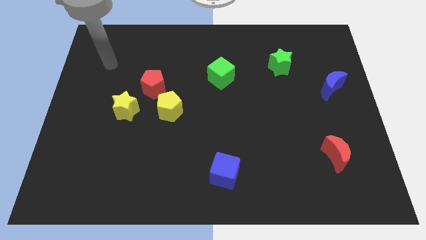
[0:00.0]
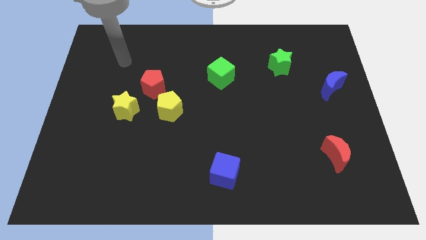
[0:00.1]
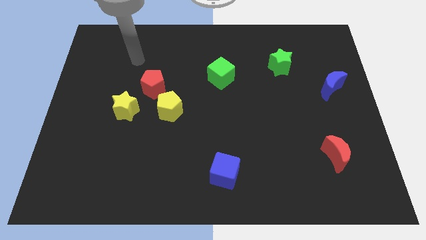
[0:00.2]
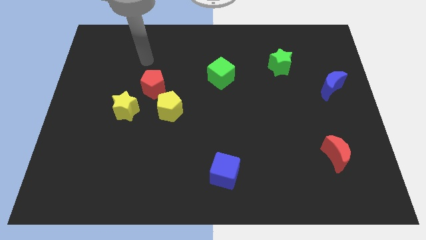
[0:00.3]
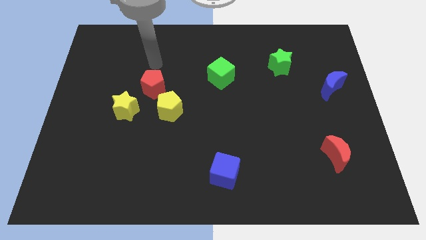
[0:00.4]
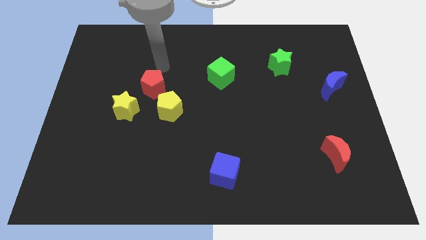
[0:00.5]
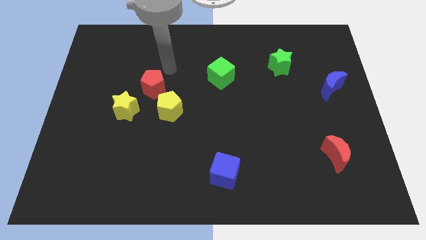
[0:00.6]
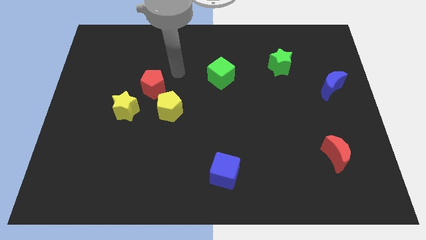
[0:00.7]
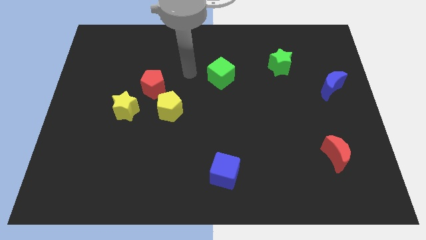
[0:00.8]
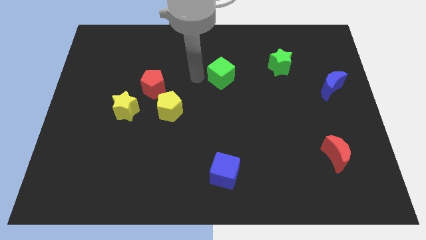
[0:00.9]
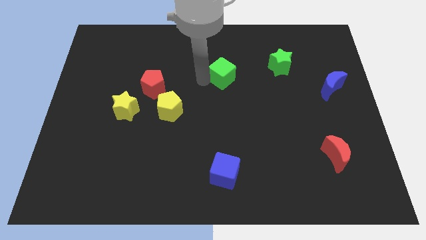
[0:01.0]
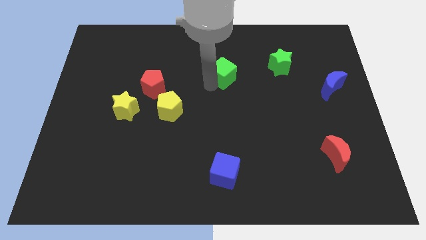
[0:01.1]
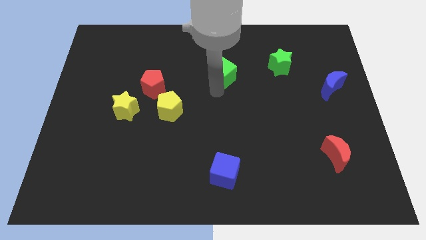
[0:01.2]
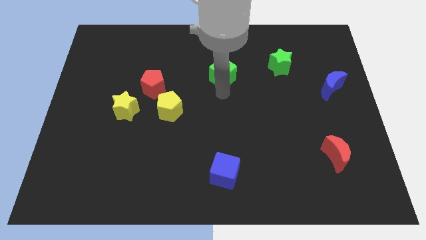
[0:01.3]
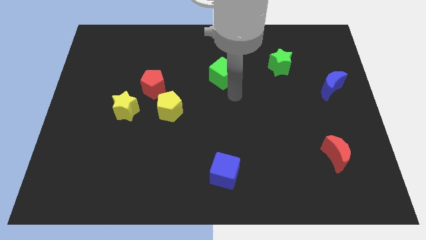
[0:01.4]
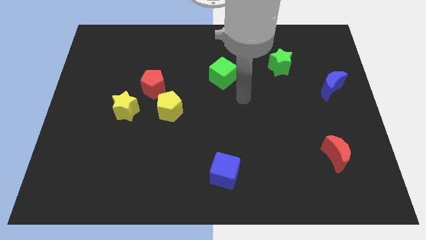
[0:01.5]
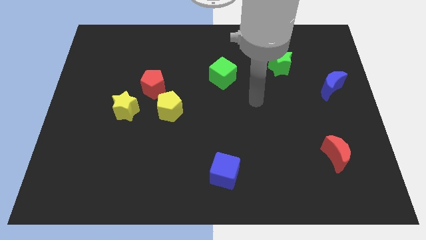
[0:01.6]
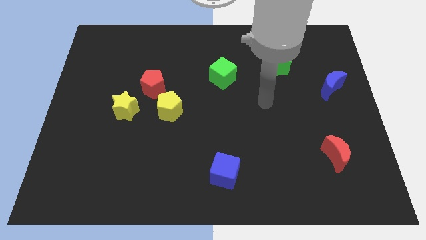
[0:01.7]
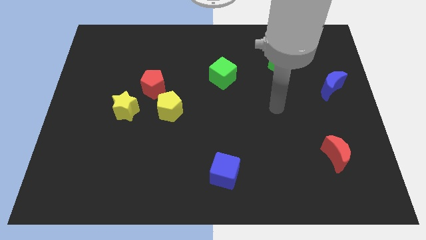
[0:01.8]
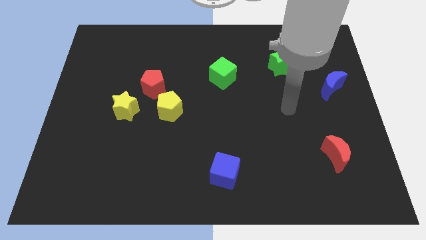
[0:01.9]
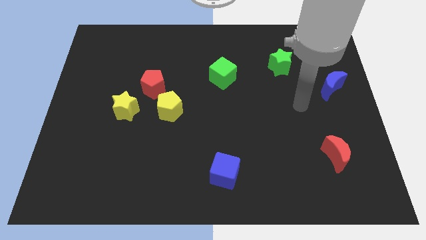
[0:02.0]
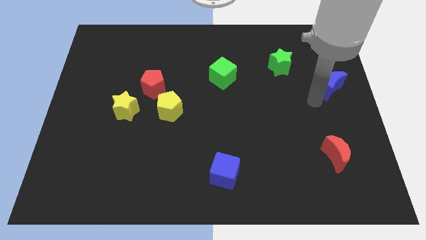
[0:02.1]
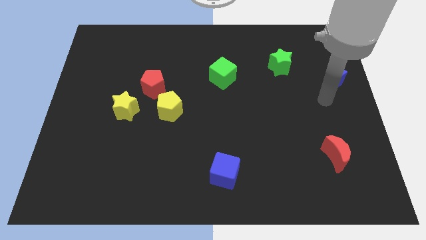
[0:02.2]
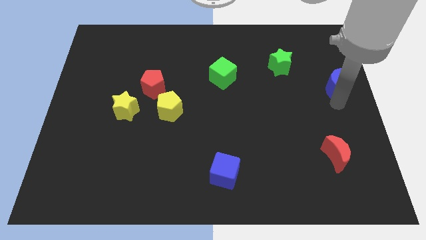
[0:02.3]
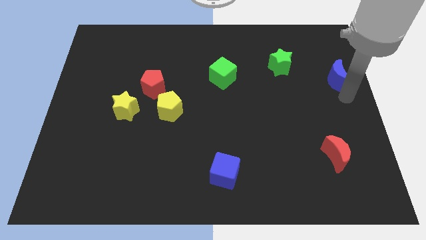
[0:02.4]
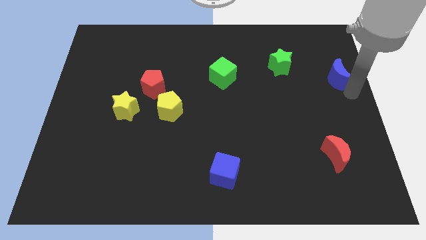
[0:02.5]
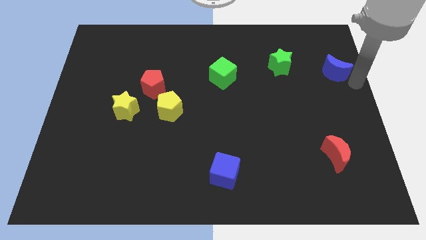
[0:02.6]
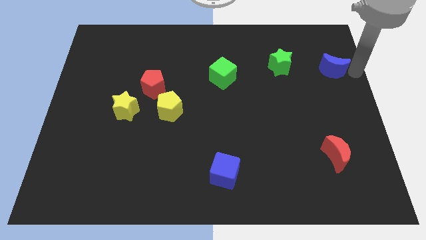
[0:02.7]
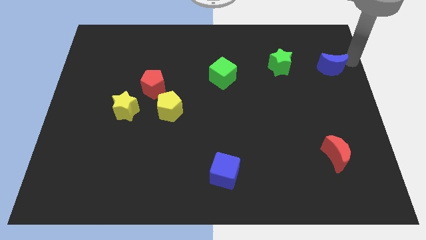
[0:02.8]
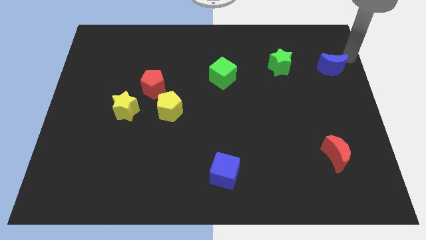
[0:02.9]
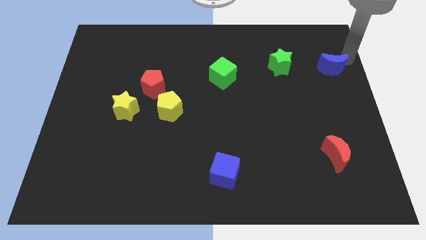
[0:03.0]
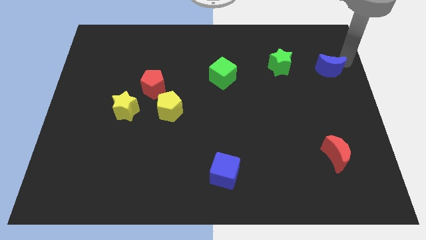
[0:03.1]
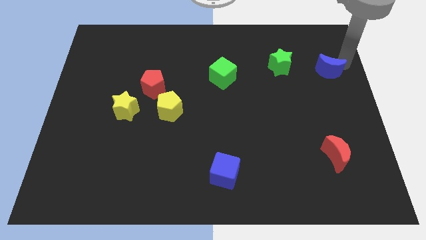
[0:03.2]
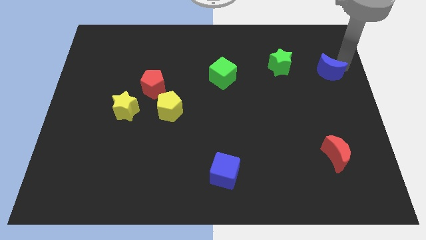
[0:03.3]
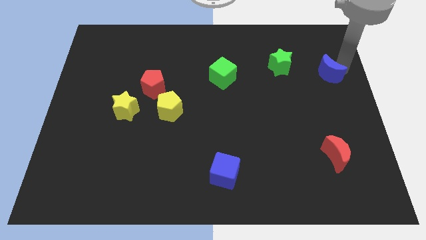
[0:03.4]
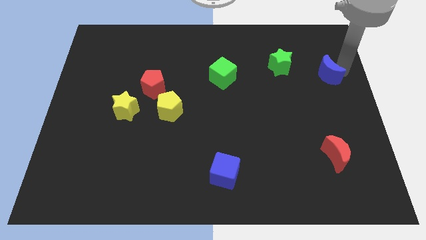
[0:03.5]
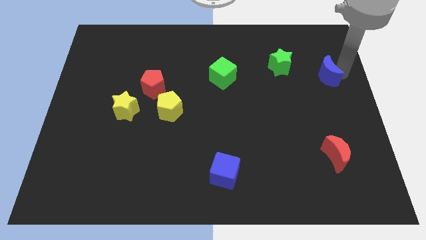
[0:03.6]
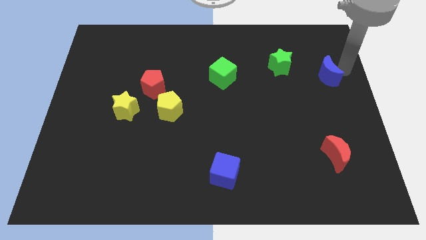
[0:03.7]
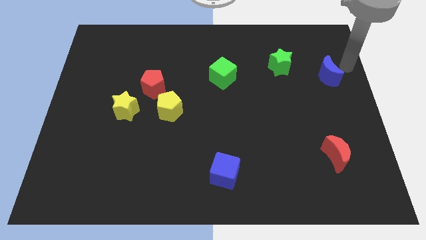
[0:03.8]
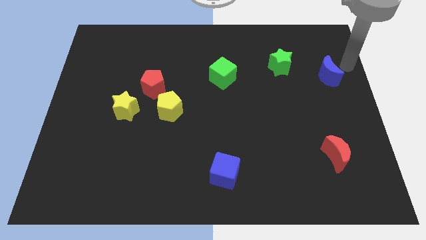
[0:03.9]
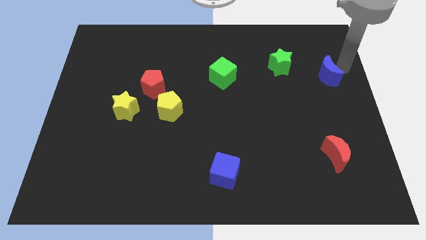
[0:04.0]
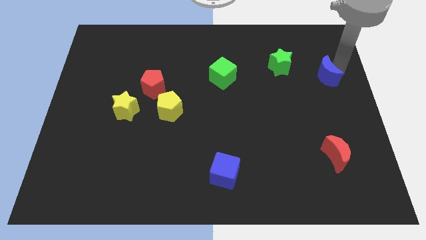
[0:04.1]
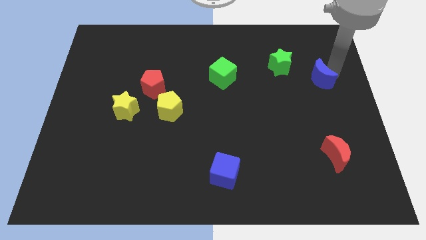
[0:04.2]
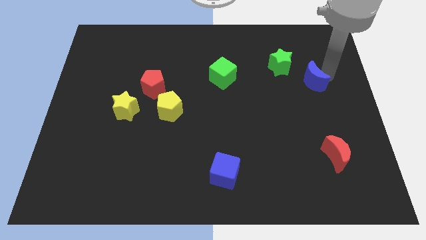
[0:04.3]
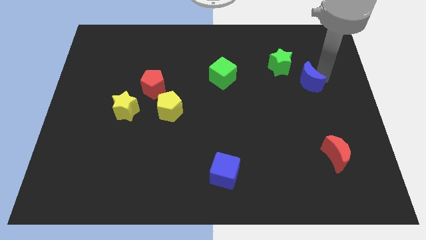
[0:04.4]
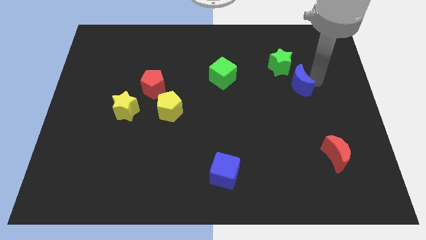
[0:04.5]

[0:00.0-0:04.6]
slide the blue moon left somewhat

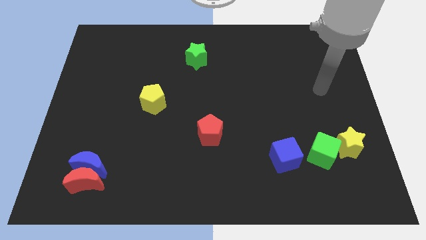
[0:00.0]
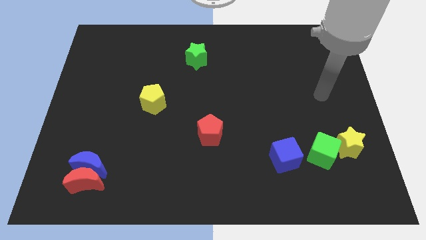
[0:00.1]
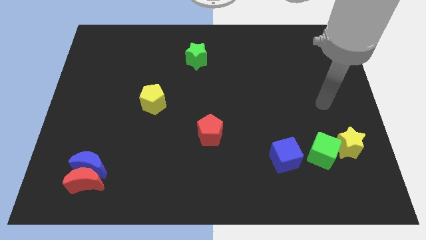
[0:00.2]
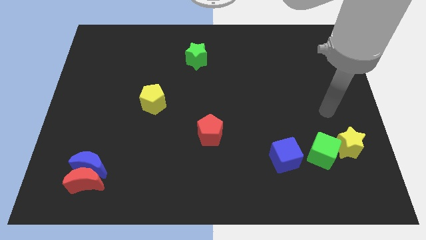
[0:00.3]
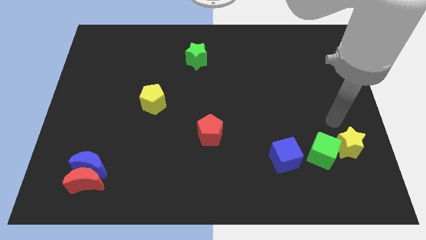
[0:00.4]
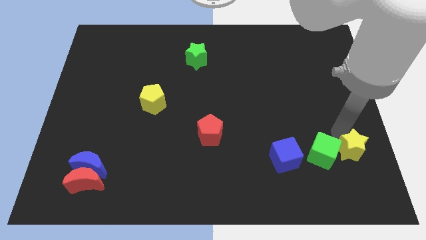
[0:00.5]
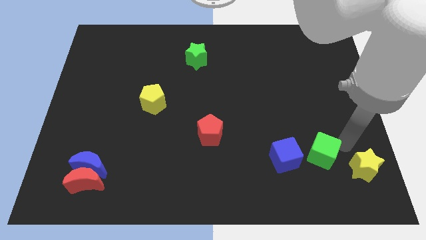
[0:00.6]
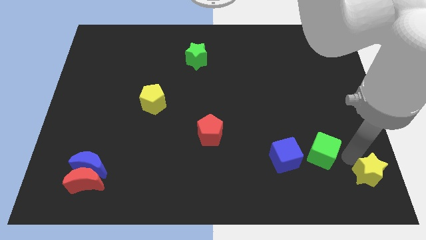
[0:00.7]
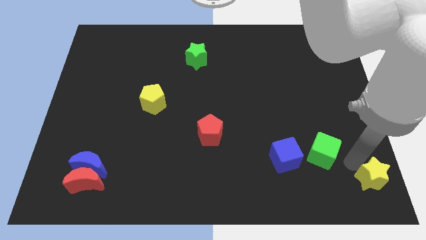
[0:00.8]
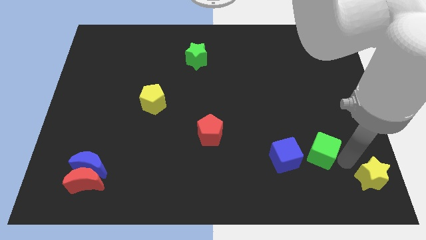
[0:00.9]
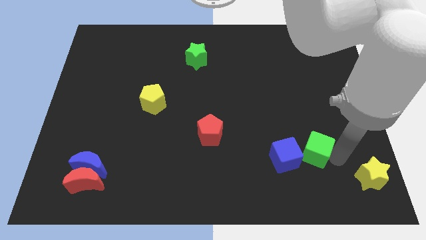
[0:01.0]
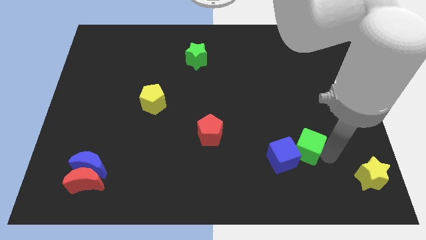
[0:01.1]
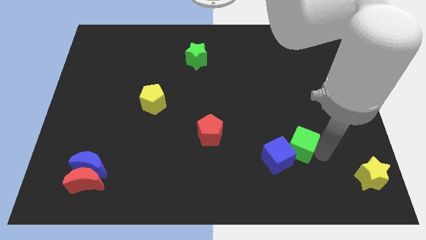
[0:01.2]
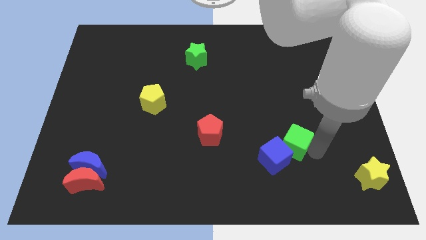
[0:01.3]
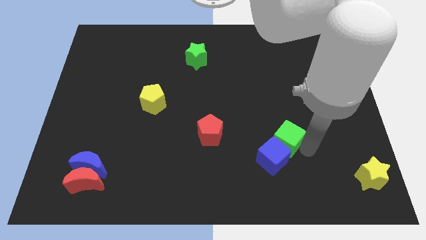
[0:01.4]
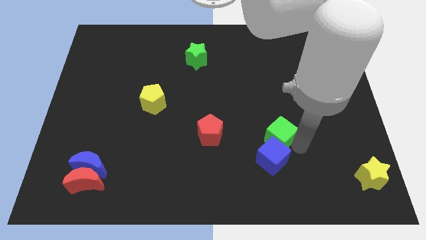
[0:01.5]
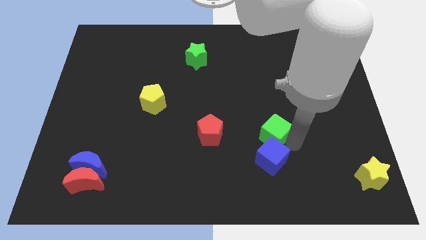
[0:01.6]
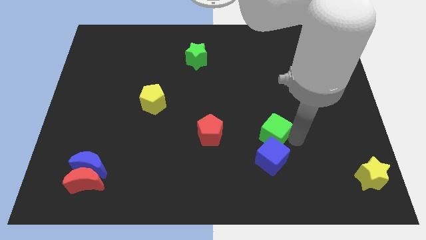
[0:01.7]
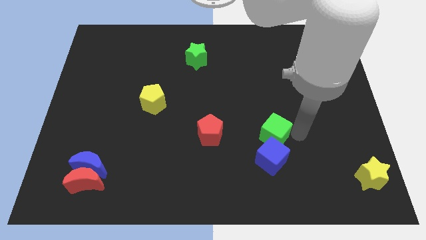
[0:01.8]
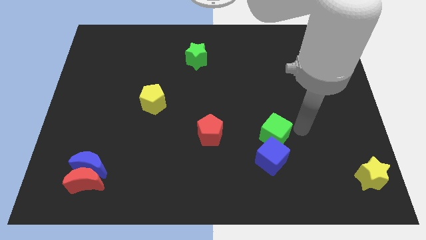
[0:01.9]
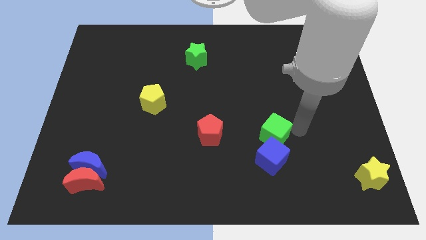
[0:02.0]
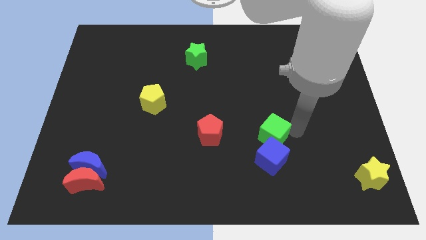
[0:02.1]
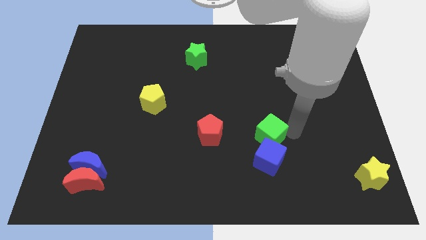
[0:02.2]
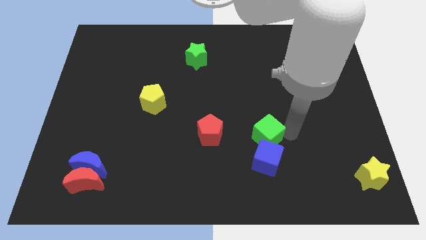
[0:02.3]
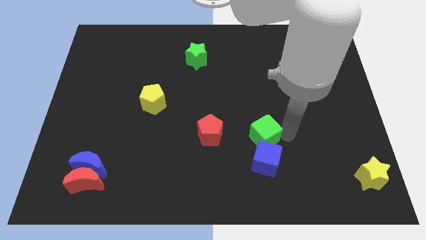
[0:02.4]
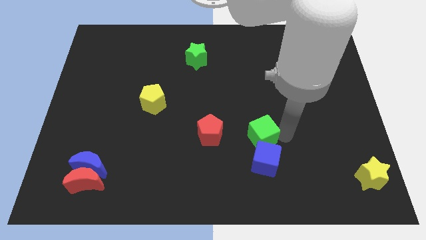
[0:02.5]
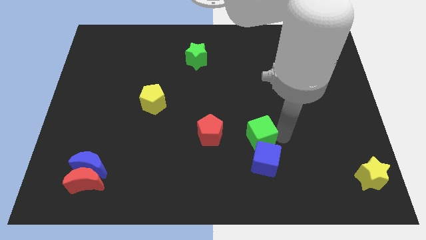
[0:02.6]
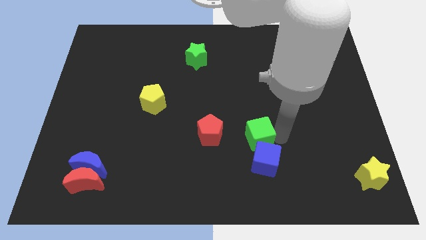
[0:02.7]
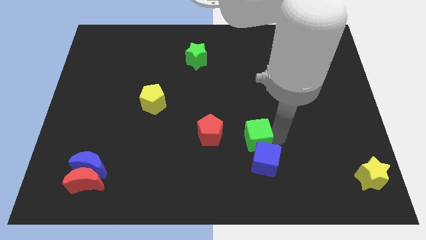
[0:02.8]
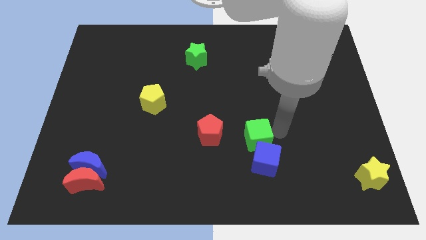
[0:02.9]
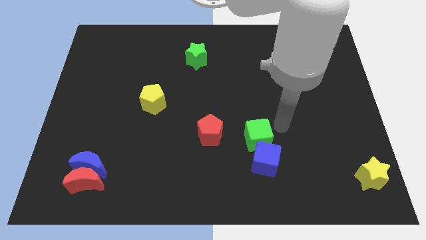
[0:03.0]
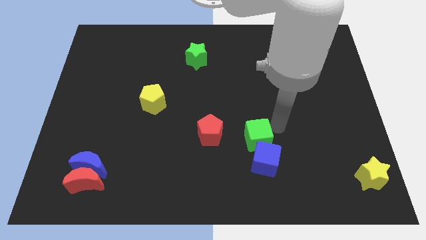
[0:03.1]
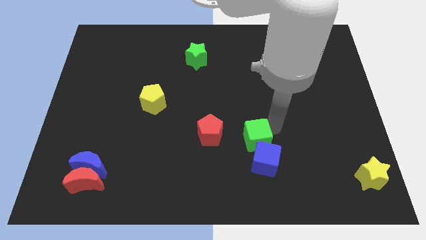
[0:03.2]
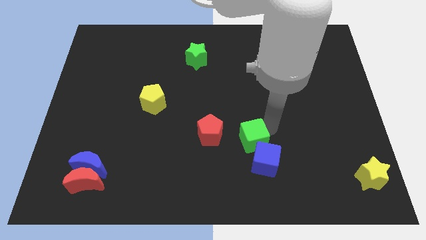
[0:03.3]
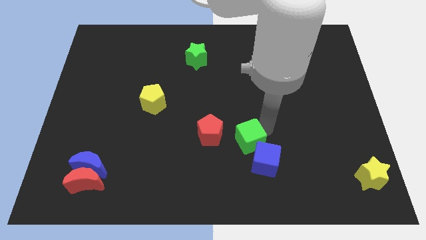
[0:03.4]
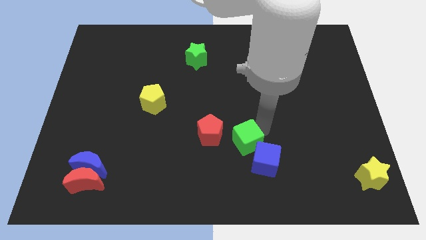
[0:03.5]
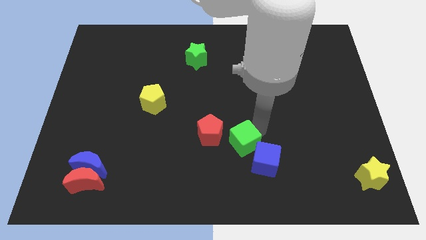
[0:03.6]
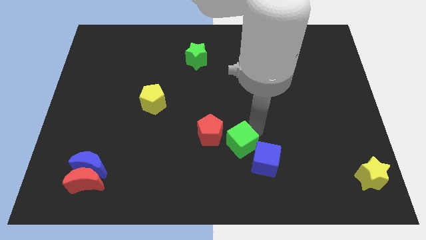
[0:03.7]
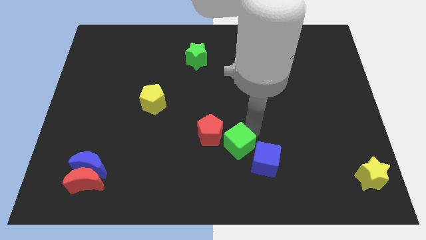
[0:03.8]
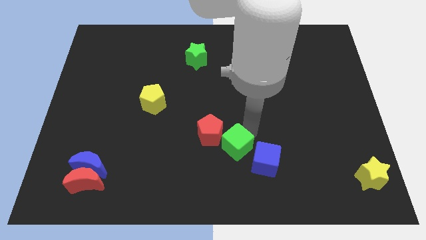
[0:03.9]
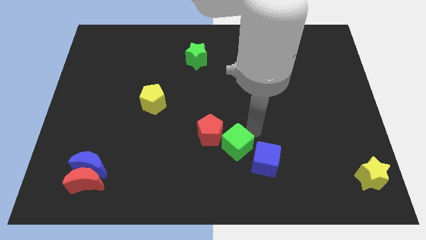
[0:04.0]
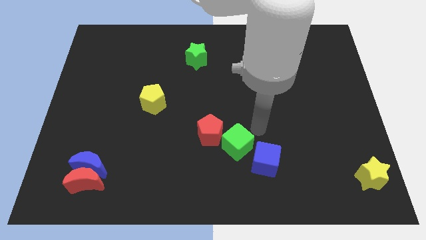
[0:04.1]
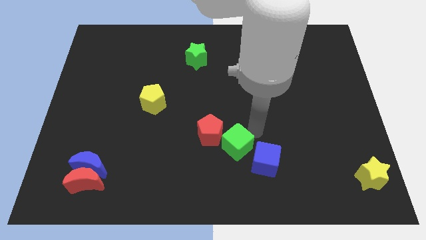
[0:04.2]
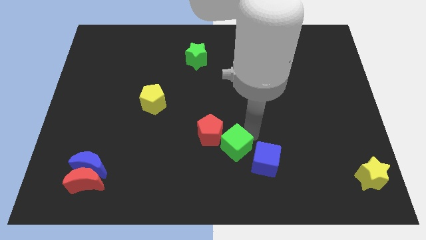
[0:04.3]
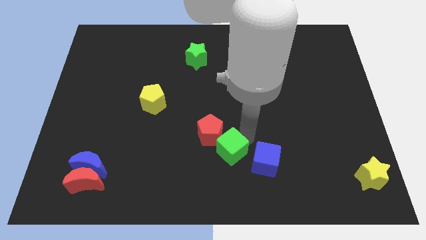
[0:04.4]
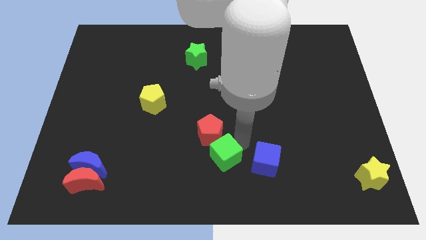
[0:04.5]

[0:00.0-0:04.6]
push the green cube to the left
